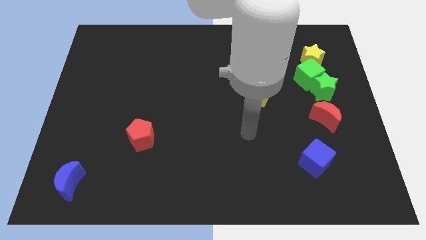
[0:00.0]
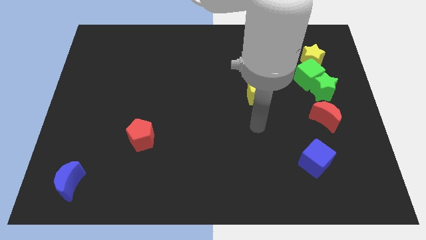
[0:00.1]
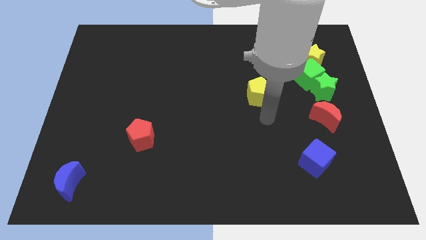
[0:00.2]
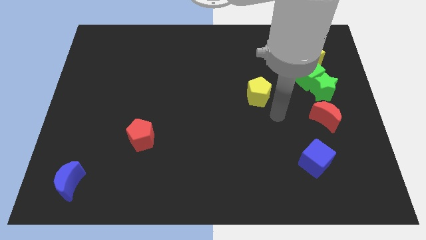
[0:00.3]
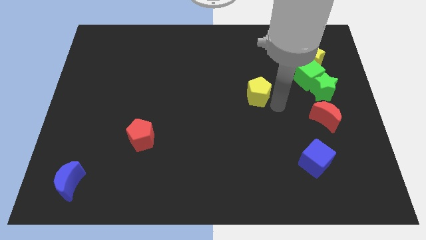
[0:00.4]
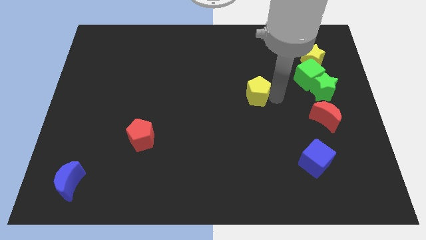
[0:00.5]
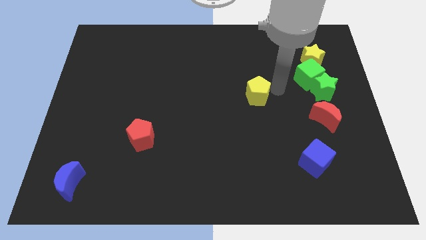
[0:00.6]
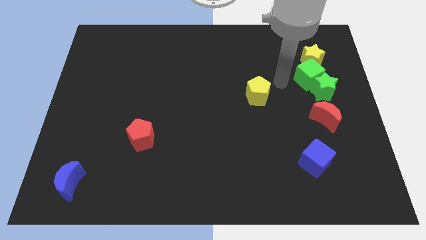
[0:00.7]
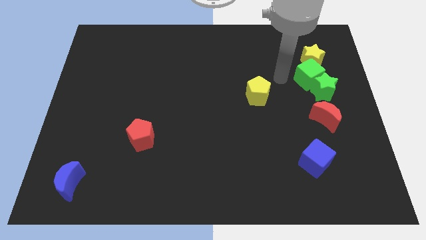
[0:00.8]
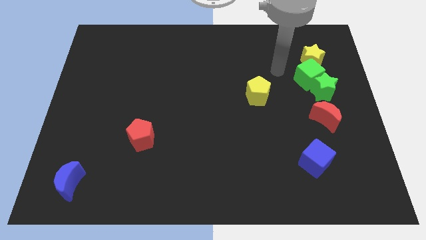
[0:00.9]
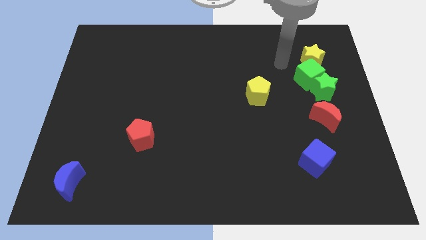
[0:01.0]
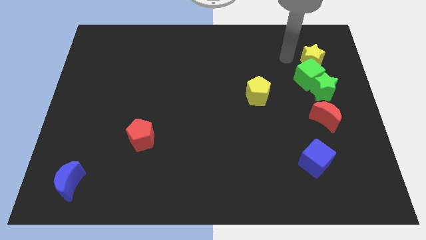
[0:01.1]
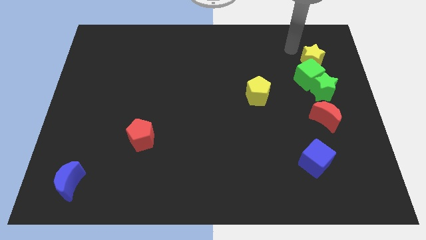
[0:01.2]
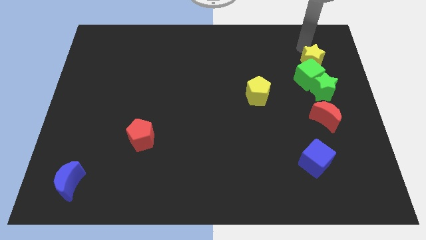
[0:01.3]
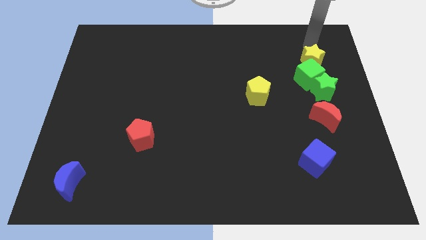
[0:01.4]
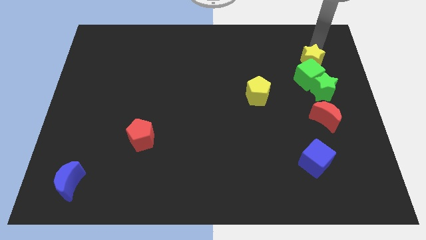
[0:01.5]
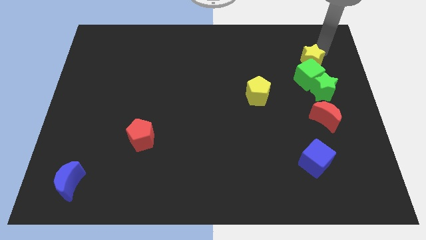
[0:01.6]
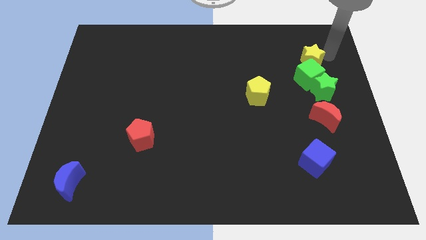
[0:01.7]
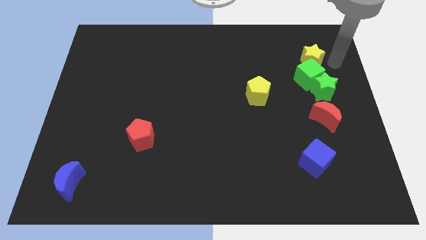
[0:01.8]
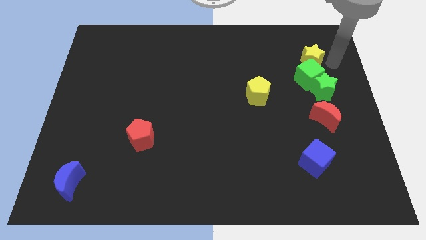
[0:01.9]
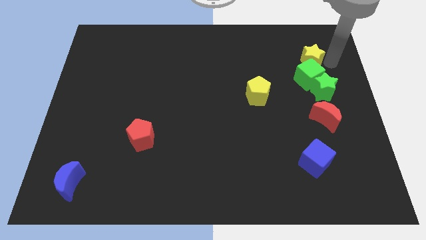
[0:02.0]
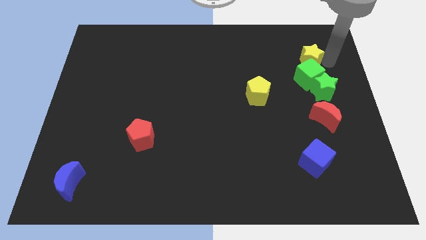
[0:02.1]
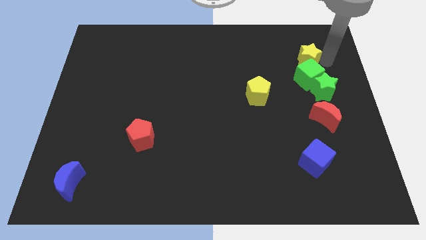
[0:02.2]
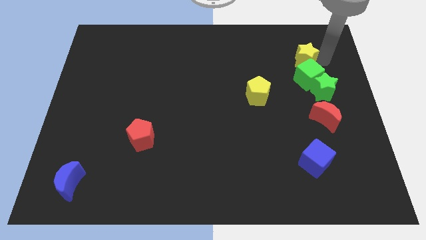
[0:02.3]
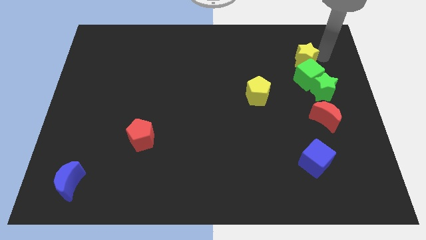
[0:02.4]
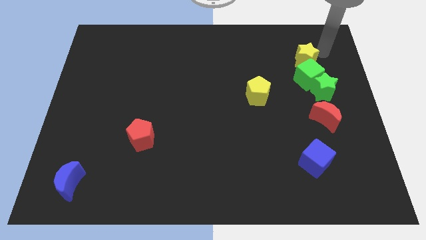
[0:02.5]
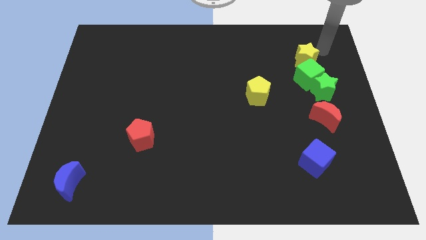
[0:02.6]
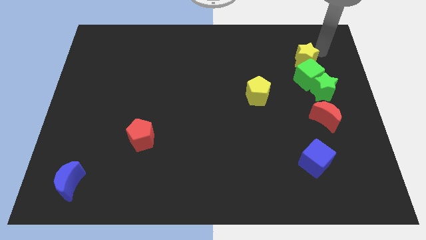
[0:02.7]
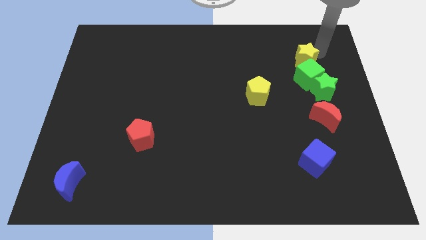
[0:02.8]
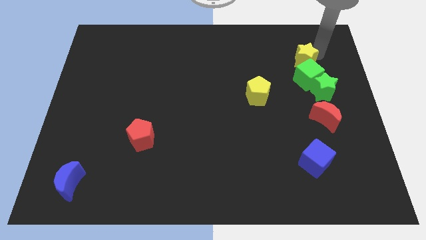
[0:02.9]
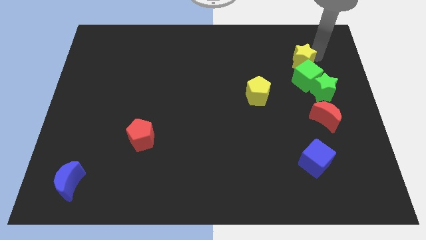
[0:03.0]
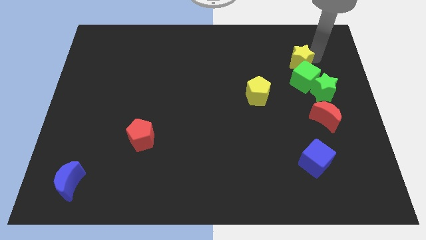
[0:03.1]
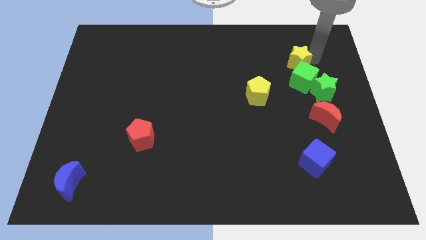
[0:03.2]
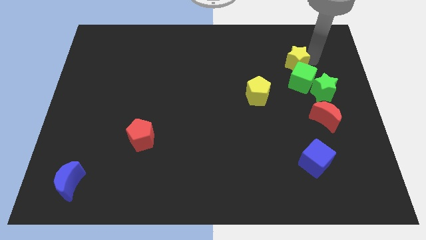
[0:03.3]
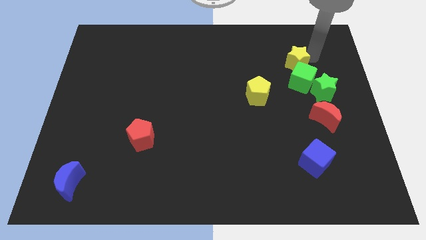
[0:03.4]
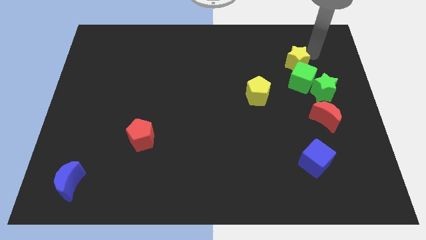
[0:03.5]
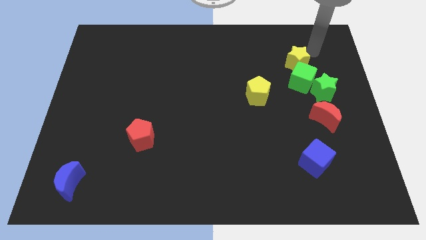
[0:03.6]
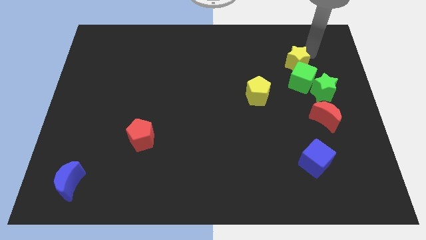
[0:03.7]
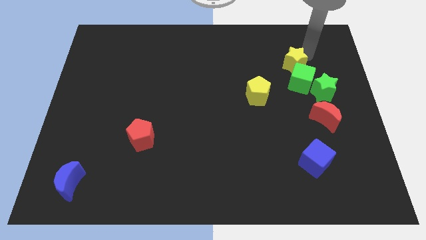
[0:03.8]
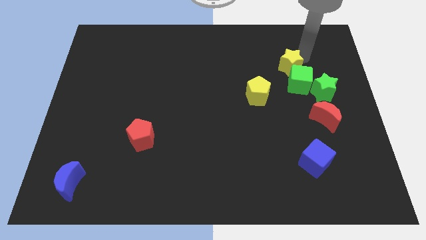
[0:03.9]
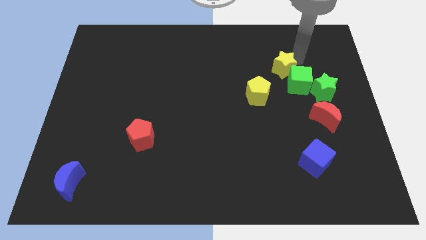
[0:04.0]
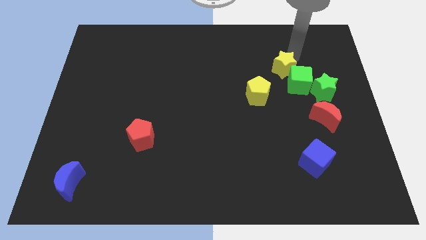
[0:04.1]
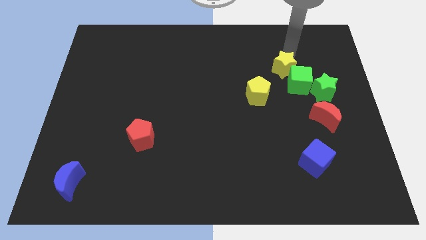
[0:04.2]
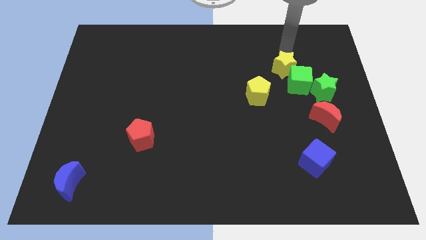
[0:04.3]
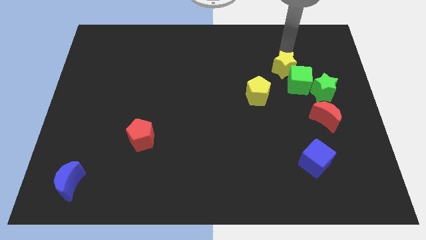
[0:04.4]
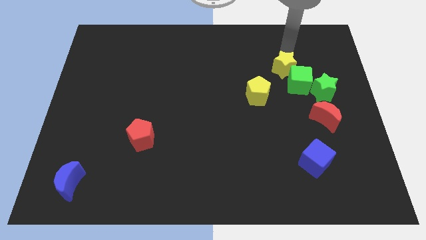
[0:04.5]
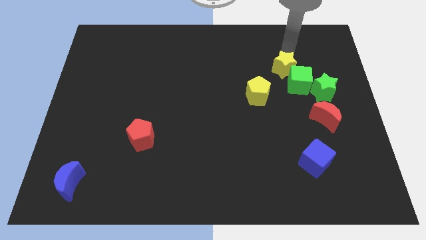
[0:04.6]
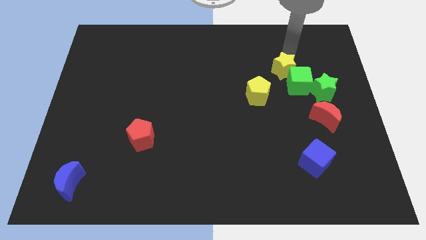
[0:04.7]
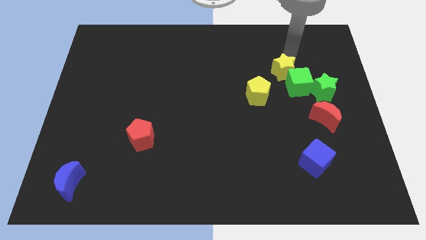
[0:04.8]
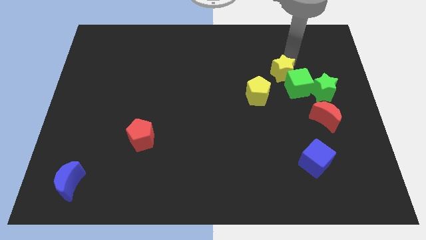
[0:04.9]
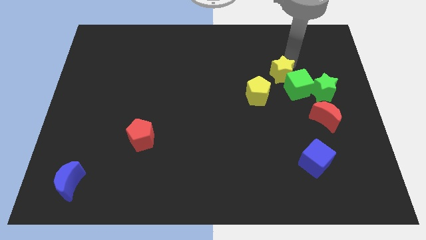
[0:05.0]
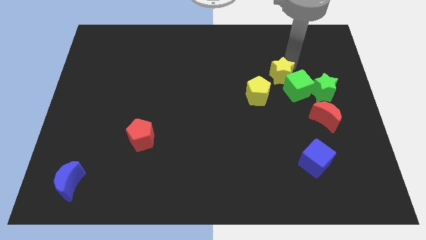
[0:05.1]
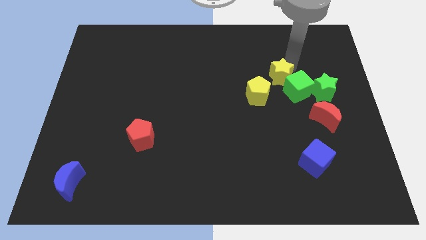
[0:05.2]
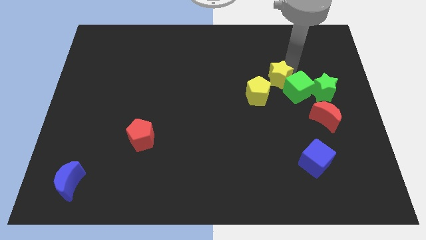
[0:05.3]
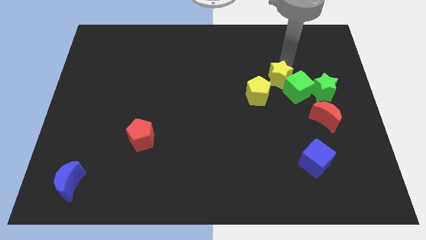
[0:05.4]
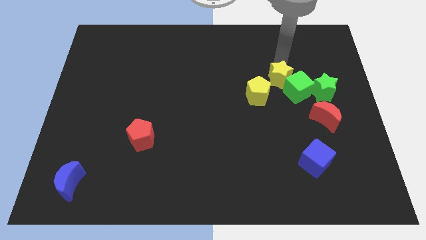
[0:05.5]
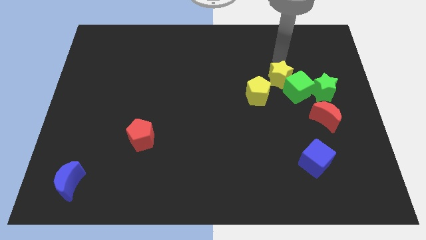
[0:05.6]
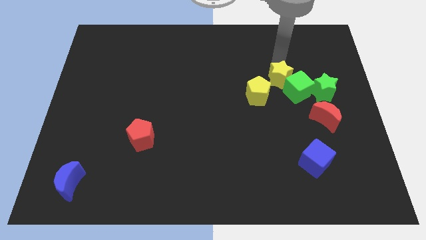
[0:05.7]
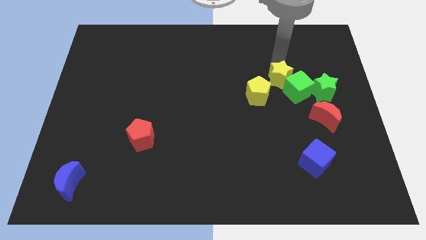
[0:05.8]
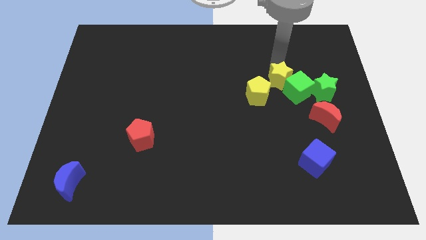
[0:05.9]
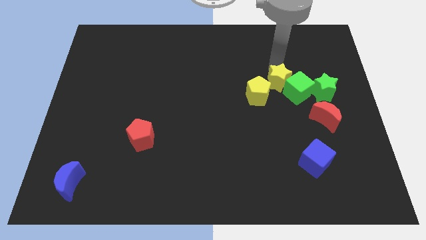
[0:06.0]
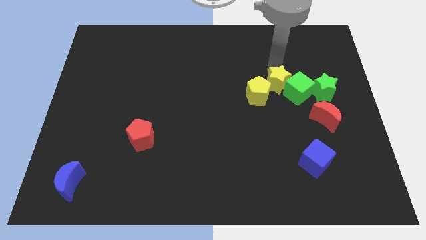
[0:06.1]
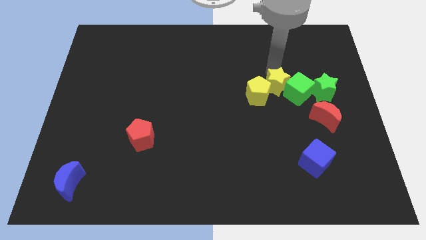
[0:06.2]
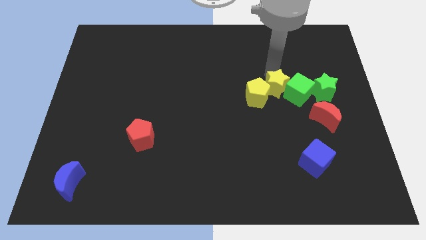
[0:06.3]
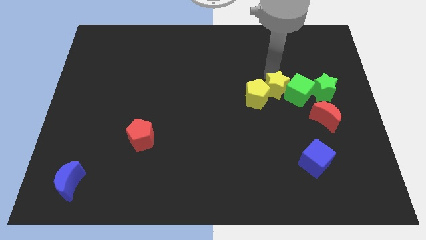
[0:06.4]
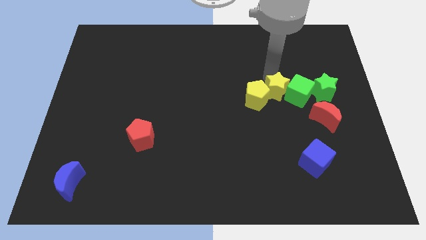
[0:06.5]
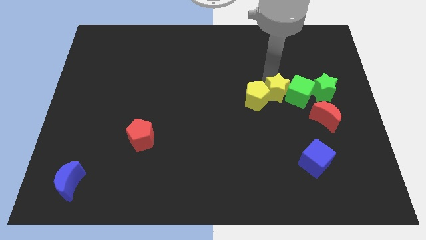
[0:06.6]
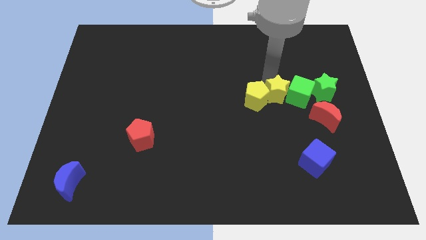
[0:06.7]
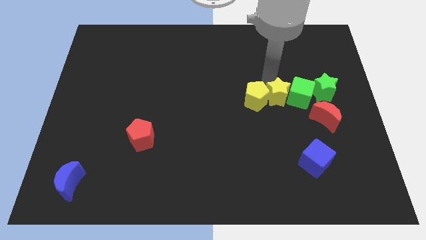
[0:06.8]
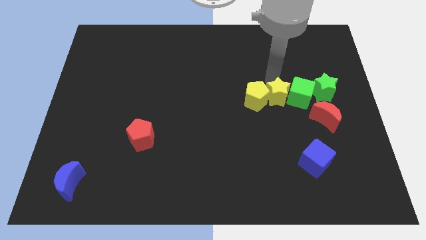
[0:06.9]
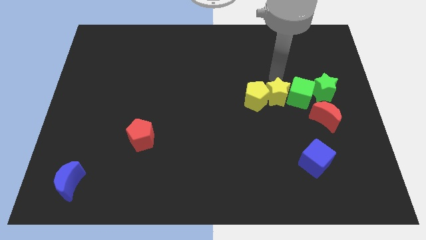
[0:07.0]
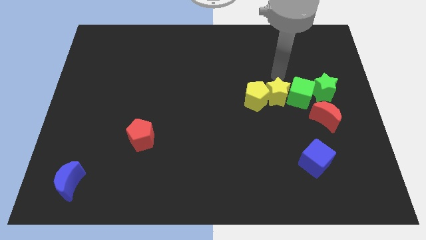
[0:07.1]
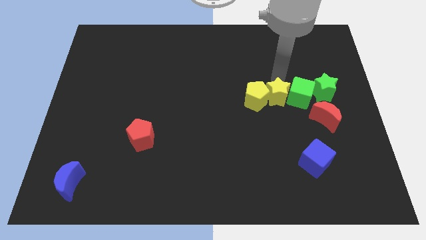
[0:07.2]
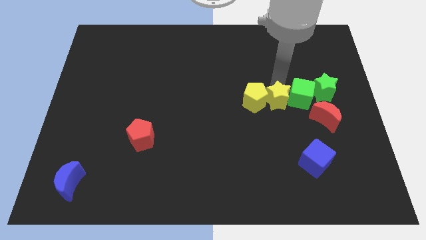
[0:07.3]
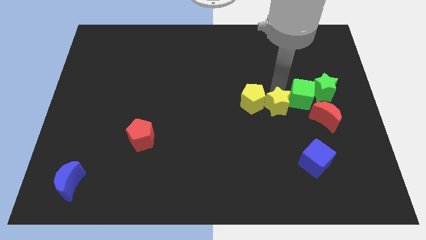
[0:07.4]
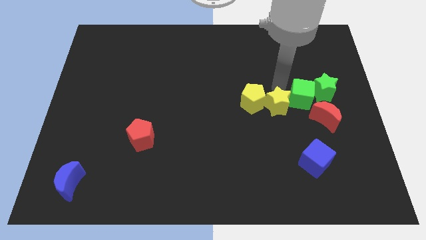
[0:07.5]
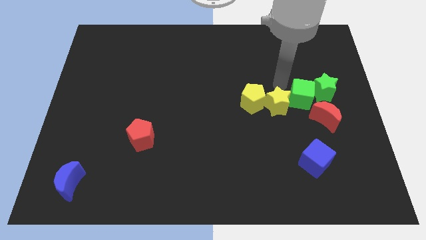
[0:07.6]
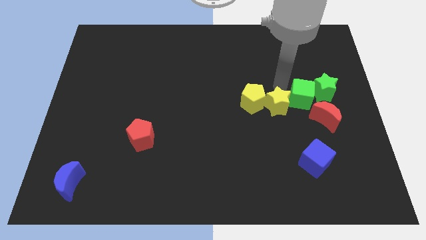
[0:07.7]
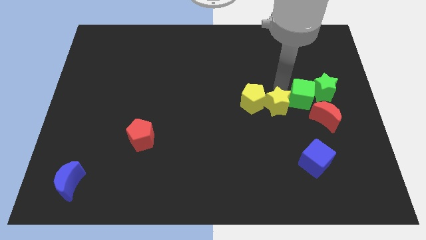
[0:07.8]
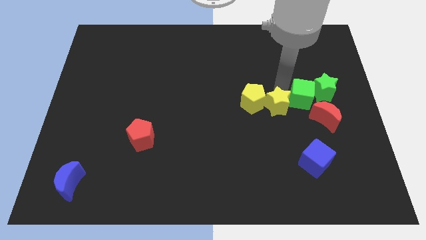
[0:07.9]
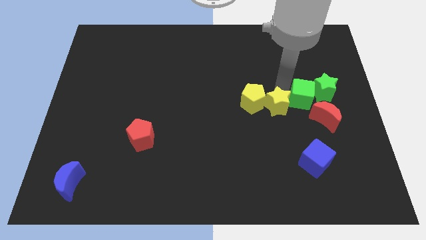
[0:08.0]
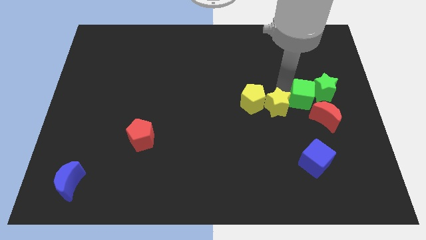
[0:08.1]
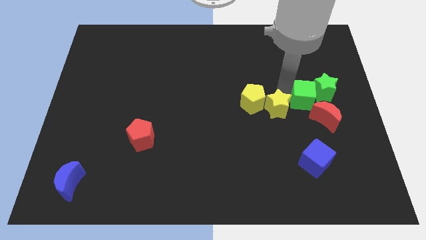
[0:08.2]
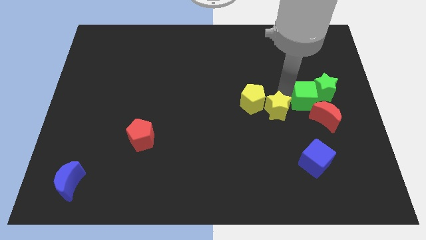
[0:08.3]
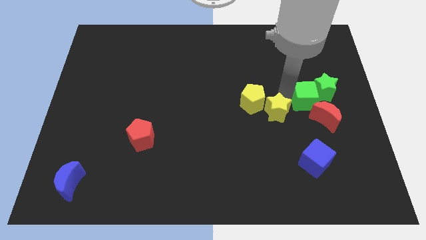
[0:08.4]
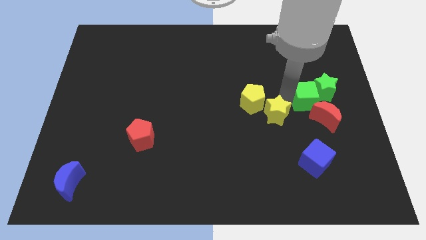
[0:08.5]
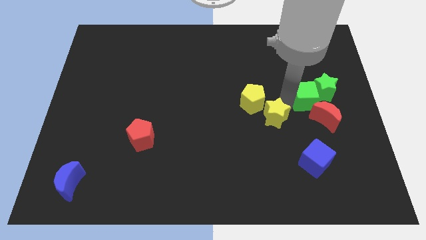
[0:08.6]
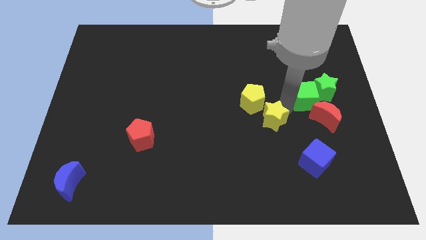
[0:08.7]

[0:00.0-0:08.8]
push the yellow star to the bottom of the yellow pentagon
